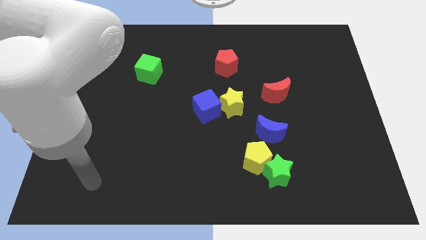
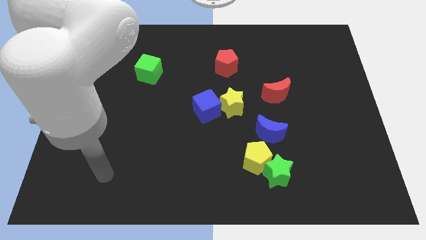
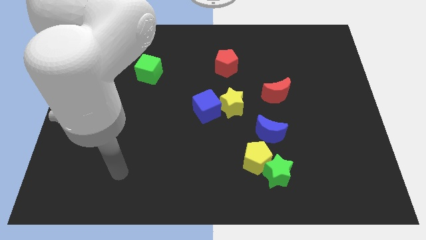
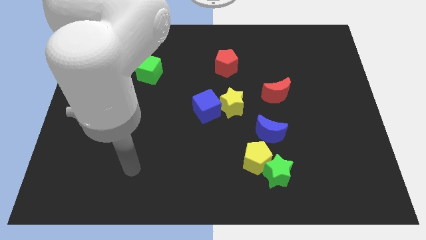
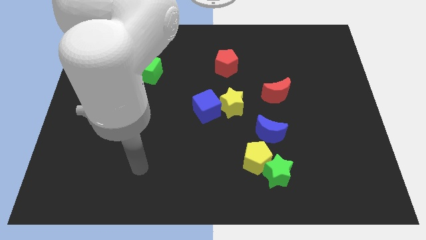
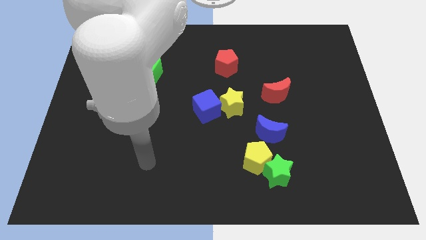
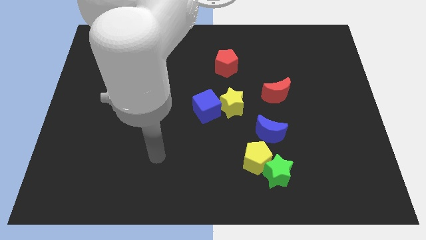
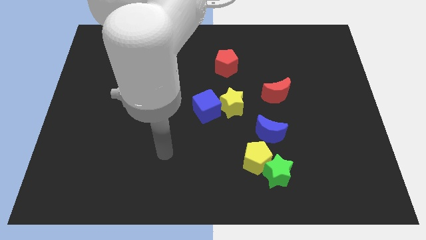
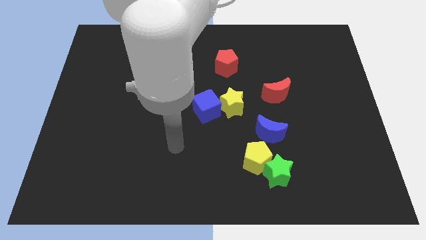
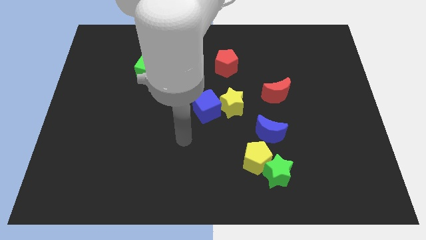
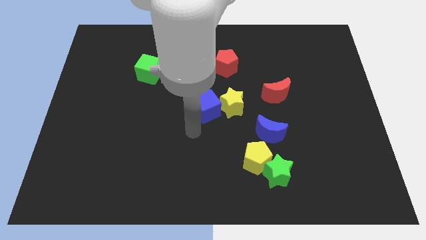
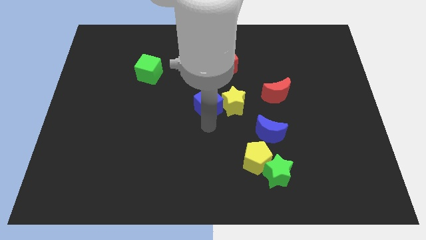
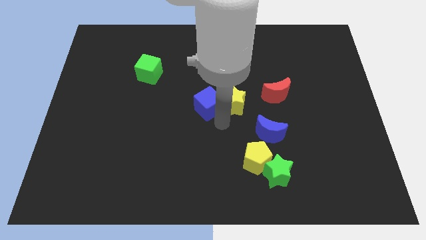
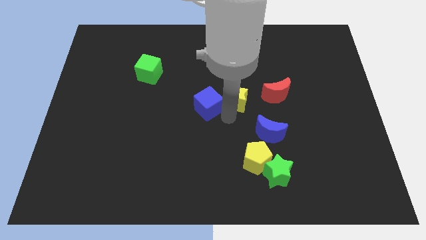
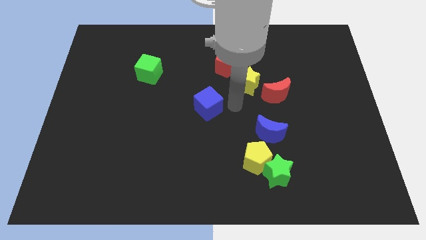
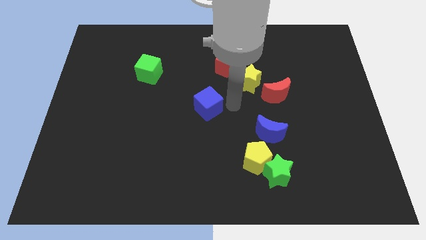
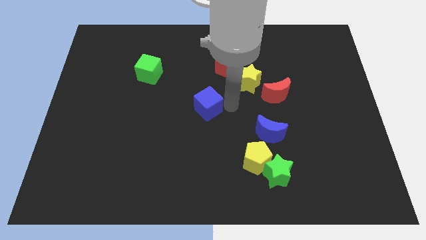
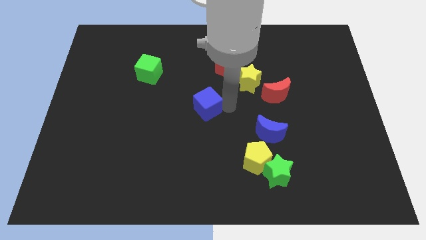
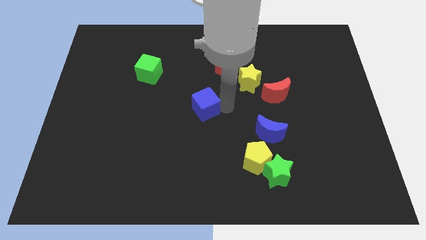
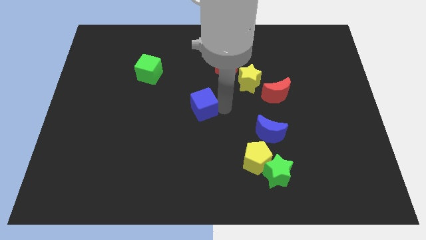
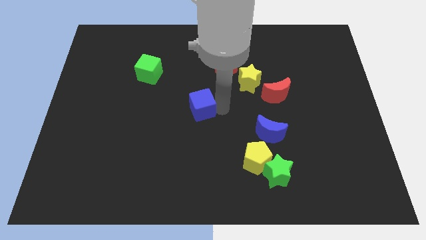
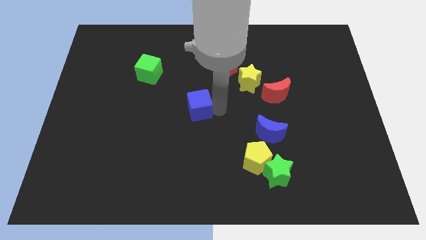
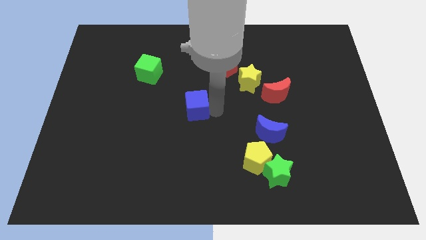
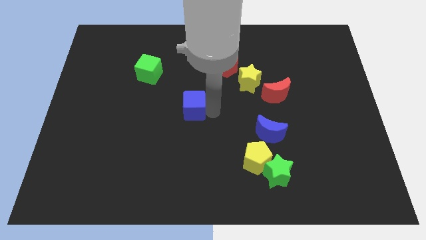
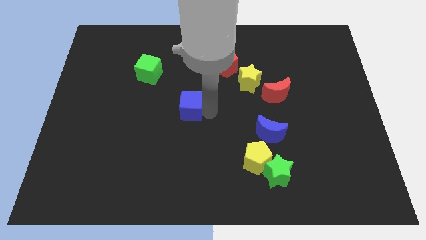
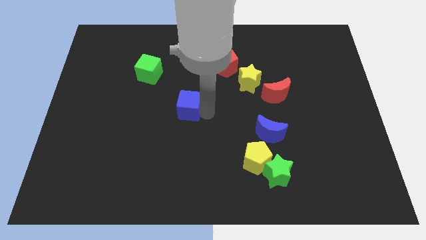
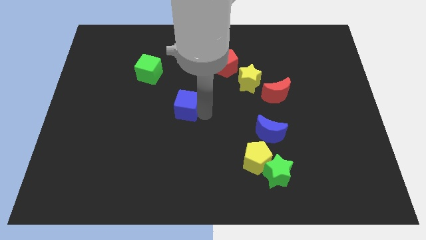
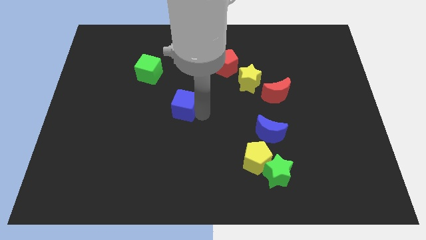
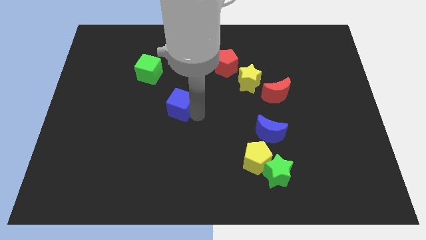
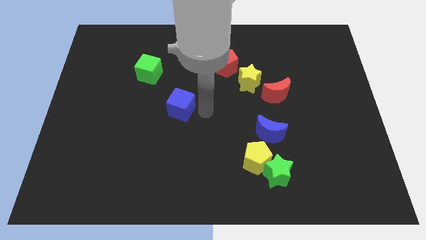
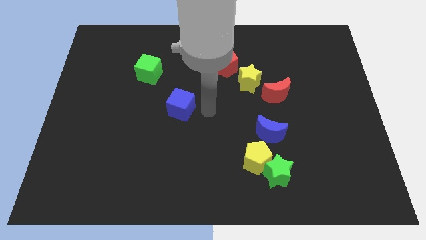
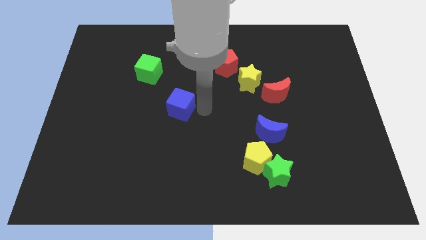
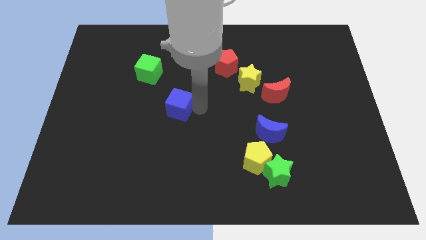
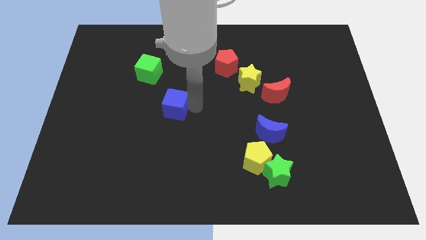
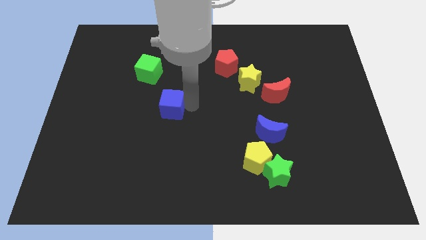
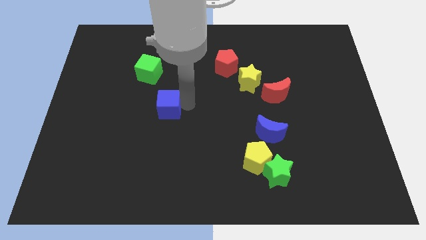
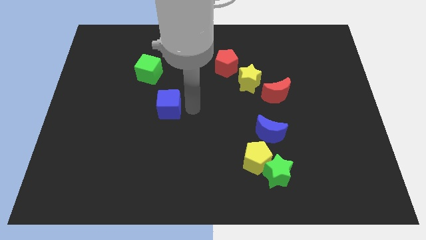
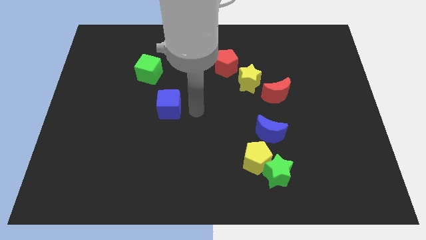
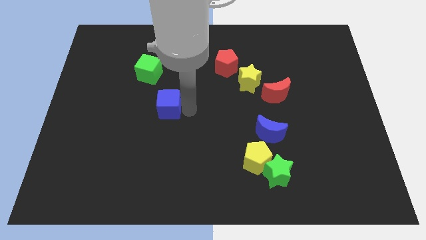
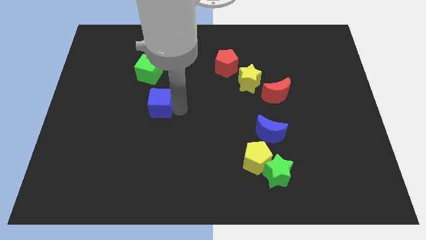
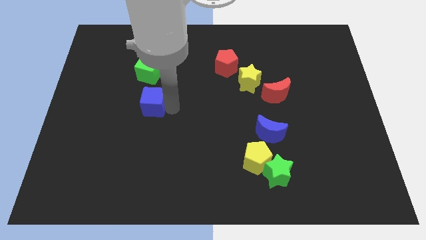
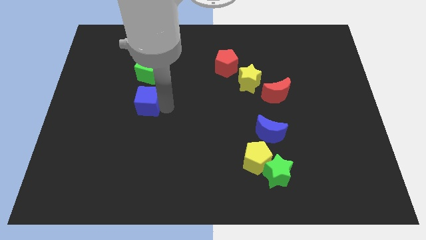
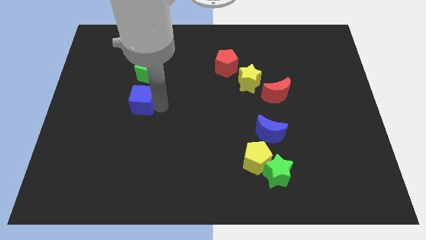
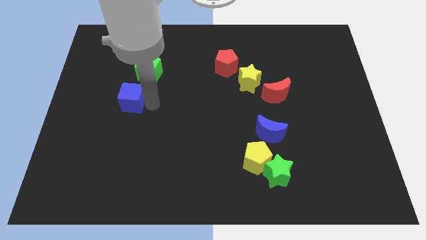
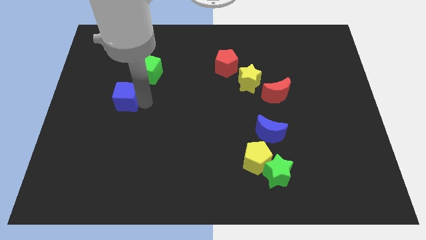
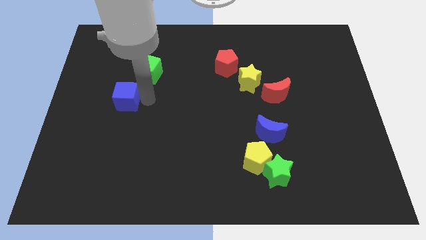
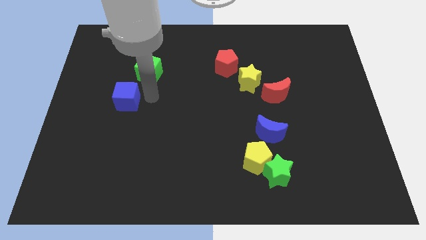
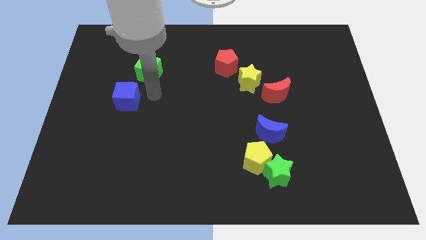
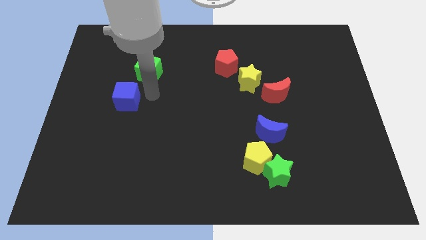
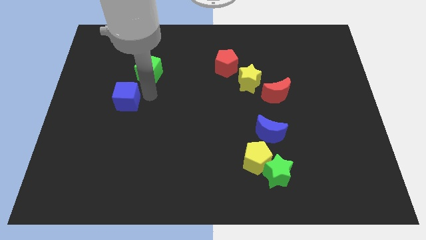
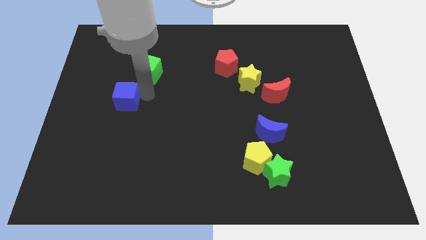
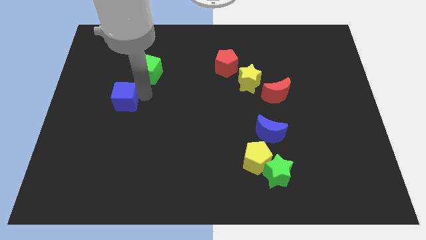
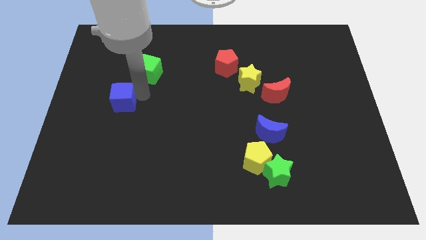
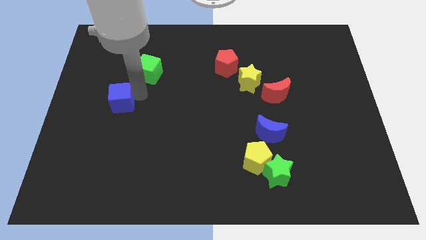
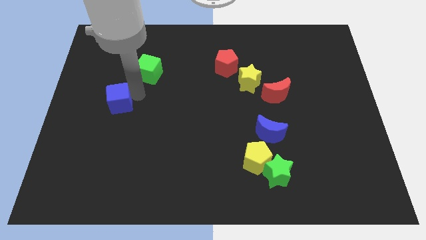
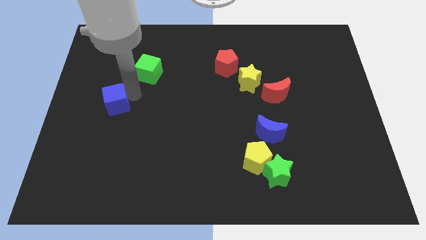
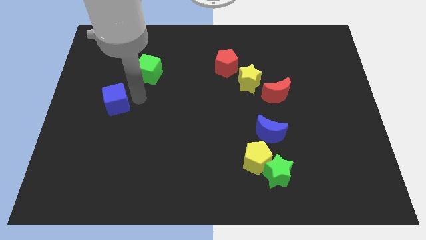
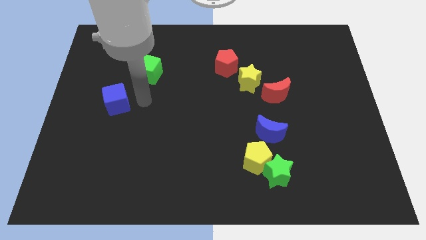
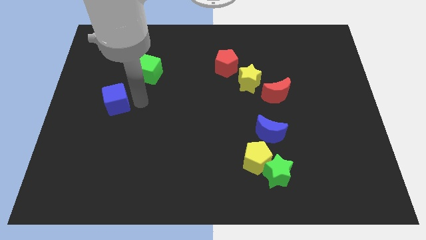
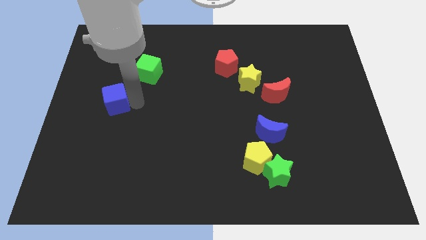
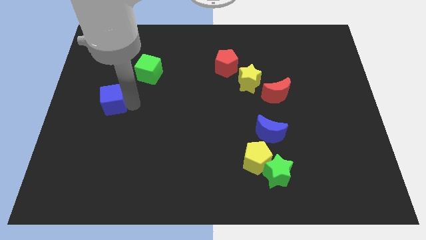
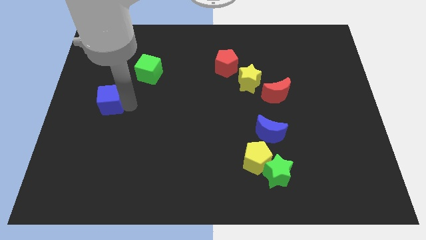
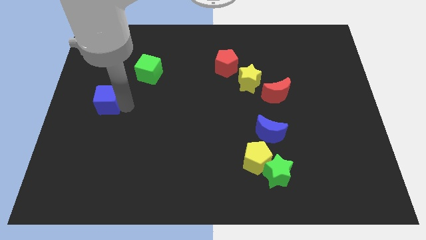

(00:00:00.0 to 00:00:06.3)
slide the blue cube to the left side
